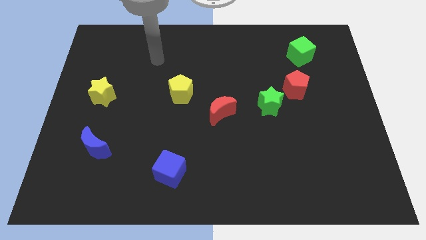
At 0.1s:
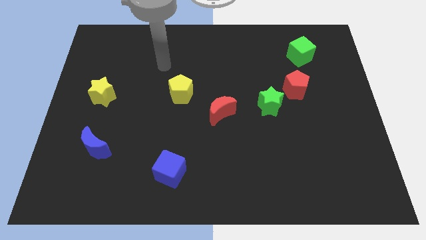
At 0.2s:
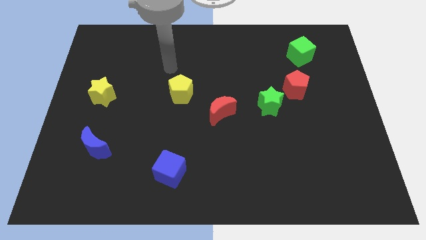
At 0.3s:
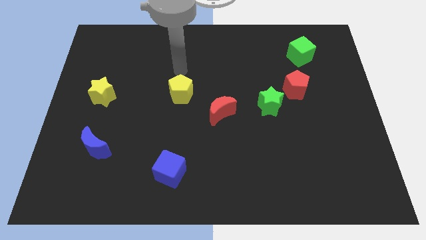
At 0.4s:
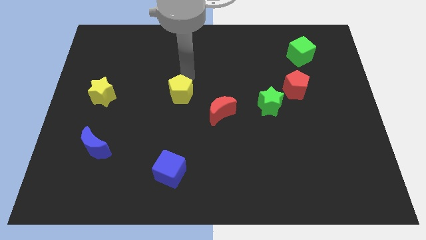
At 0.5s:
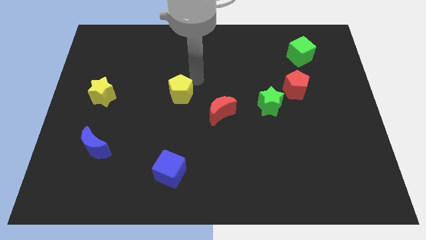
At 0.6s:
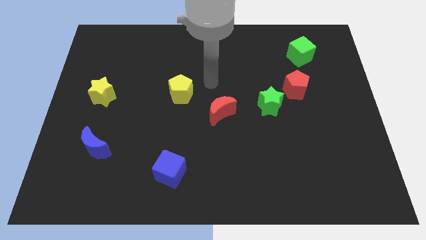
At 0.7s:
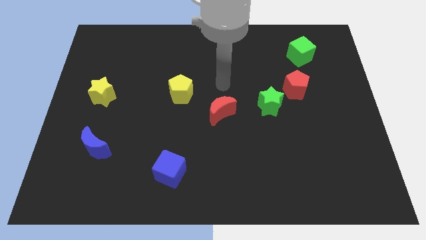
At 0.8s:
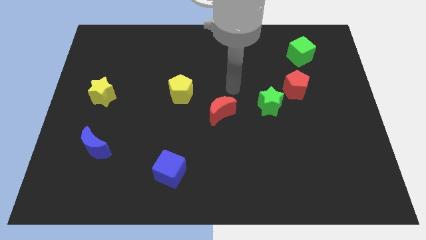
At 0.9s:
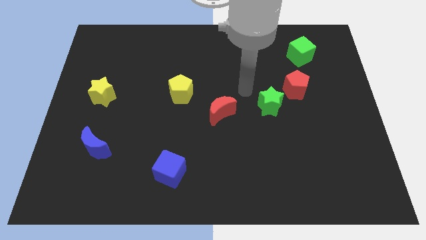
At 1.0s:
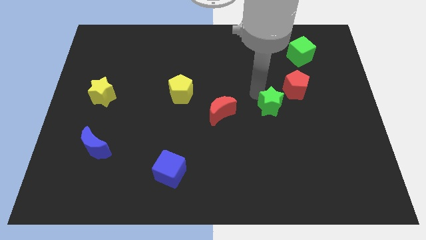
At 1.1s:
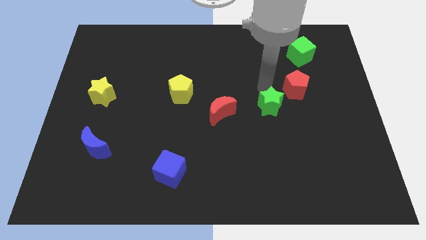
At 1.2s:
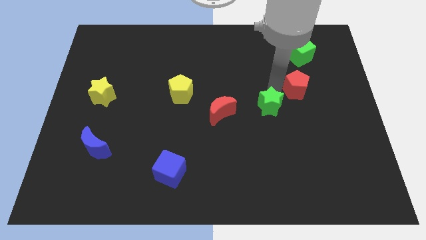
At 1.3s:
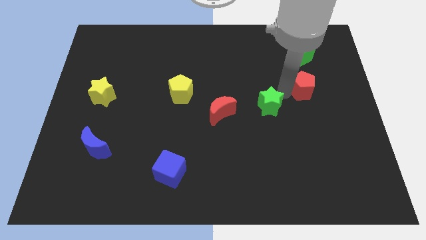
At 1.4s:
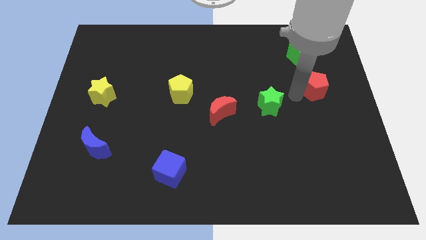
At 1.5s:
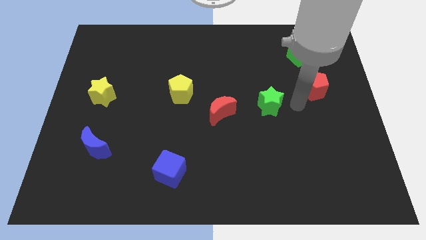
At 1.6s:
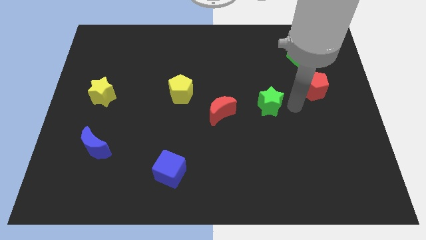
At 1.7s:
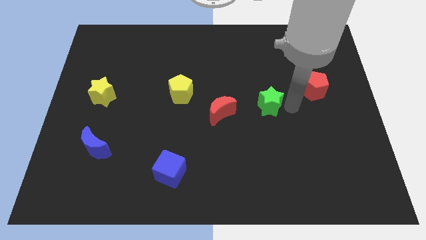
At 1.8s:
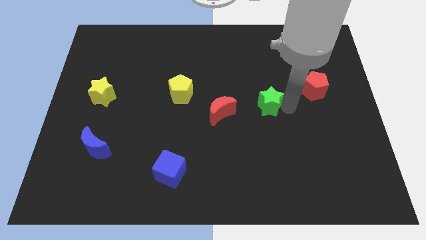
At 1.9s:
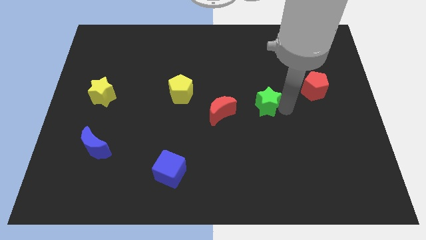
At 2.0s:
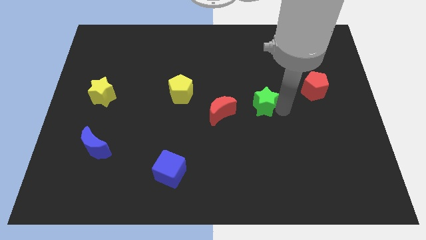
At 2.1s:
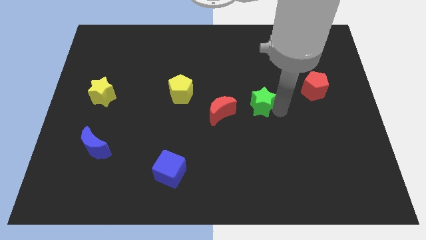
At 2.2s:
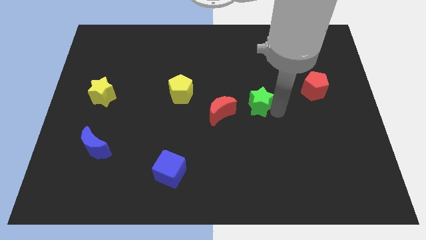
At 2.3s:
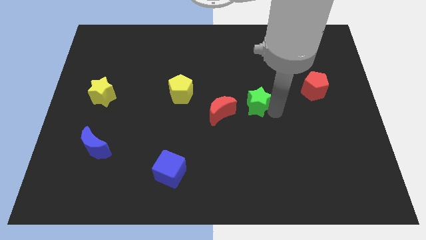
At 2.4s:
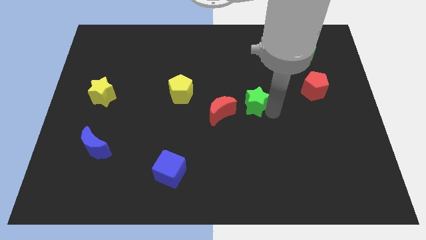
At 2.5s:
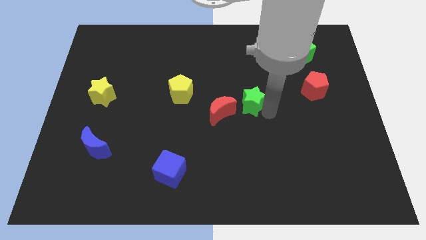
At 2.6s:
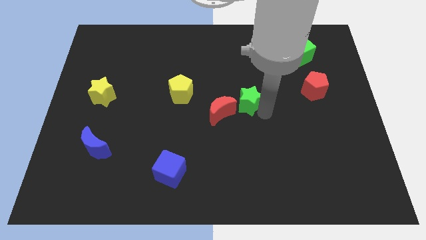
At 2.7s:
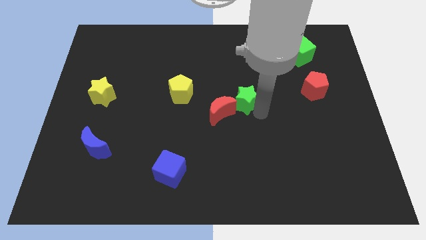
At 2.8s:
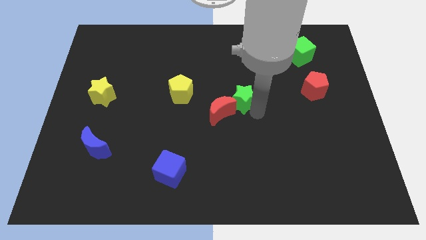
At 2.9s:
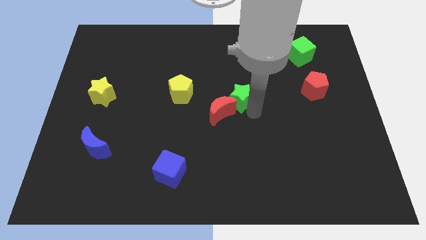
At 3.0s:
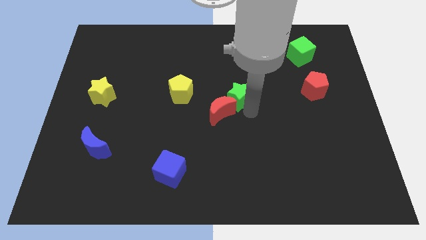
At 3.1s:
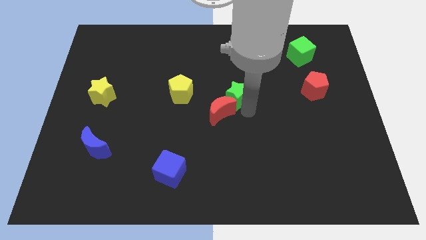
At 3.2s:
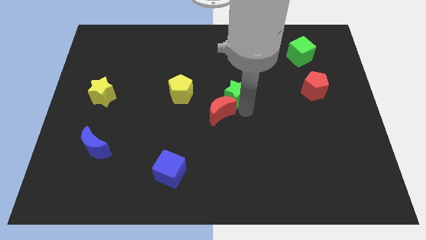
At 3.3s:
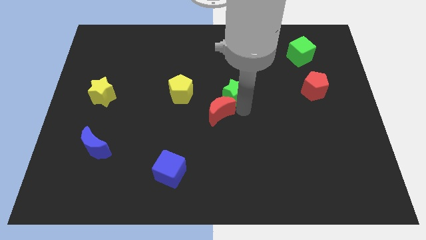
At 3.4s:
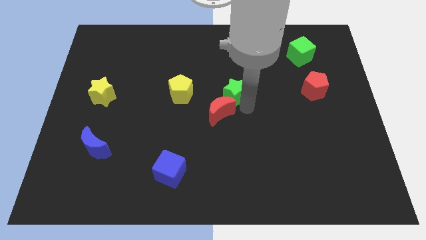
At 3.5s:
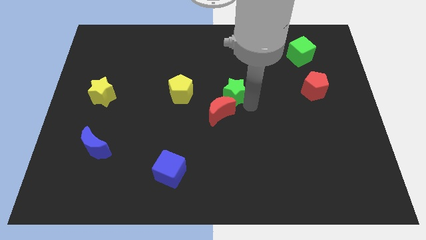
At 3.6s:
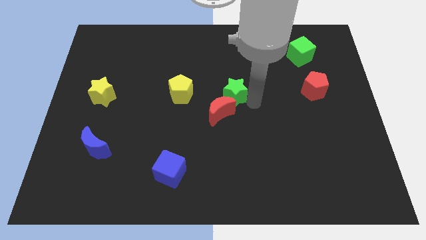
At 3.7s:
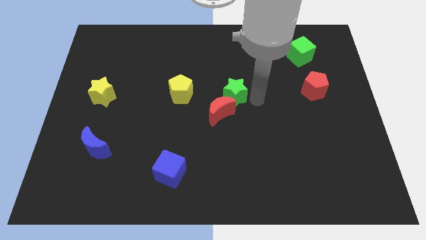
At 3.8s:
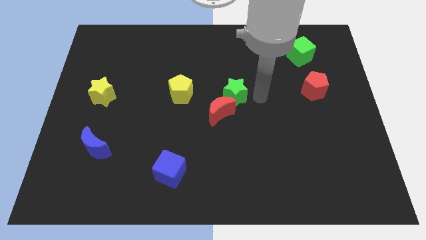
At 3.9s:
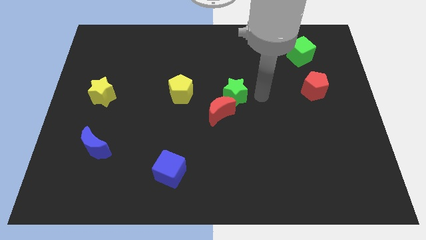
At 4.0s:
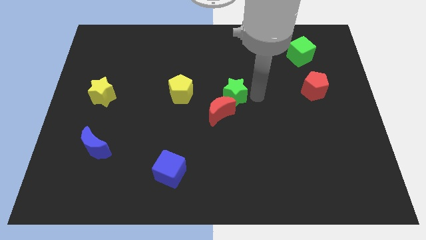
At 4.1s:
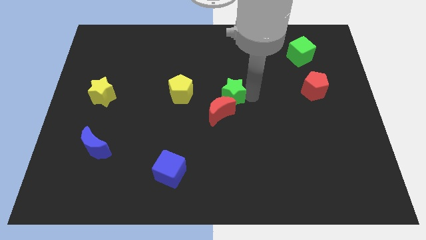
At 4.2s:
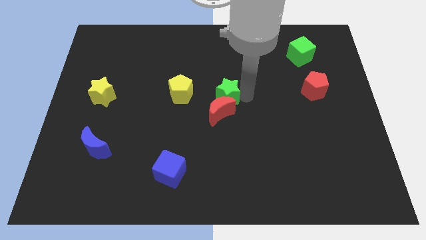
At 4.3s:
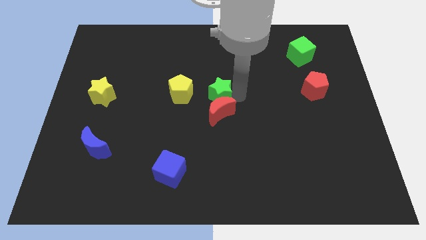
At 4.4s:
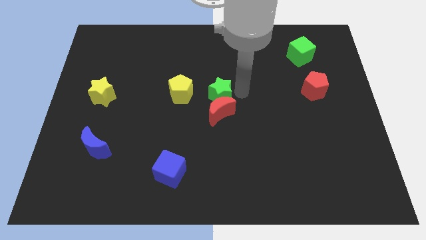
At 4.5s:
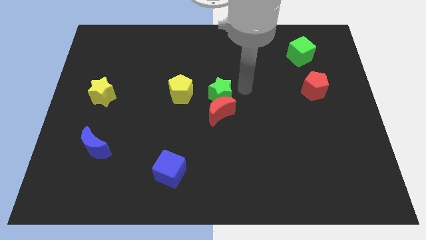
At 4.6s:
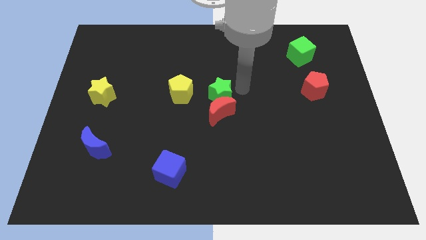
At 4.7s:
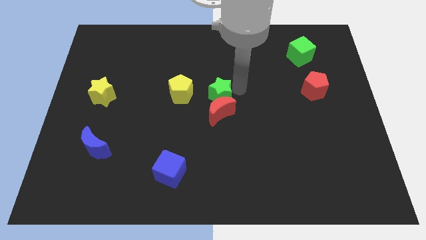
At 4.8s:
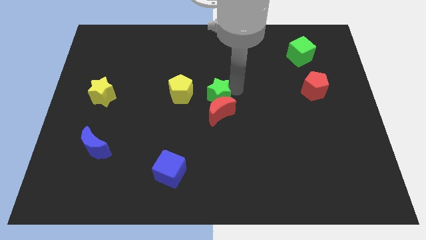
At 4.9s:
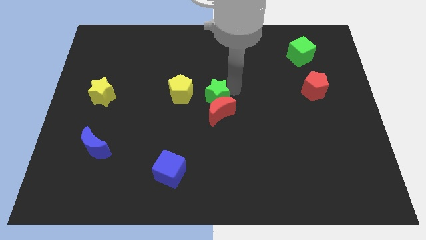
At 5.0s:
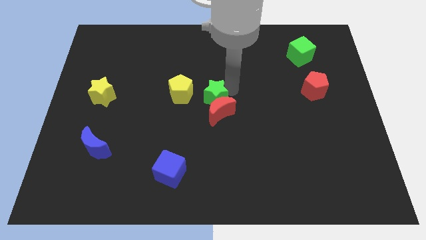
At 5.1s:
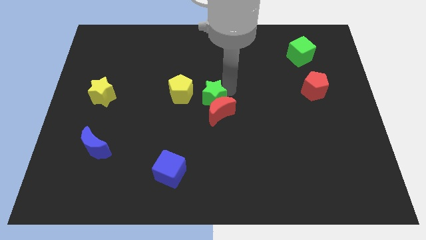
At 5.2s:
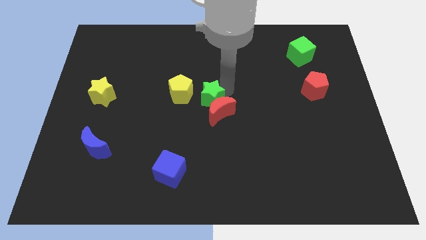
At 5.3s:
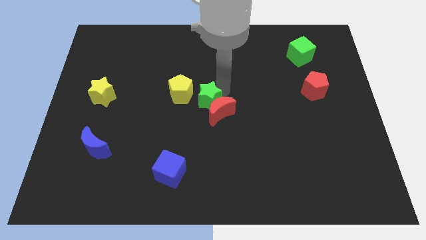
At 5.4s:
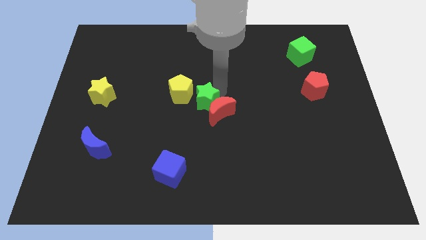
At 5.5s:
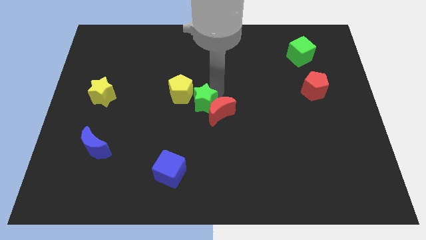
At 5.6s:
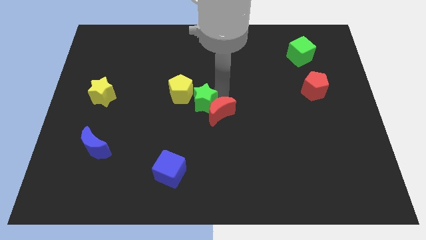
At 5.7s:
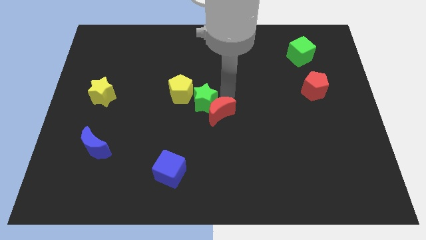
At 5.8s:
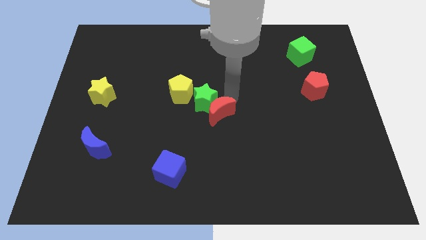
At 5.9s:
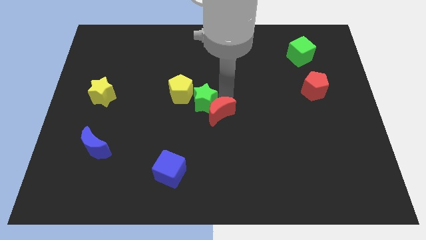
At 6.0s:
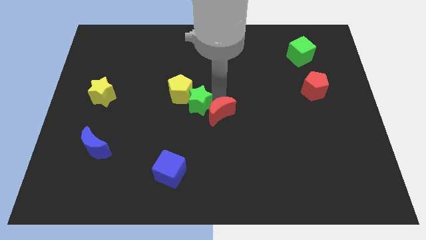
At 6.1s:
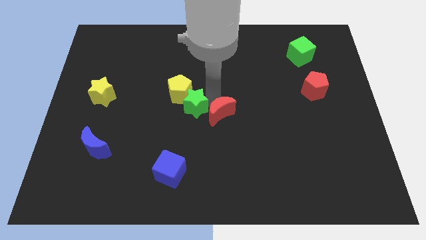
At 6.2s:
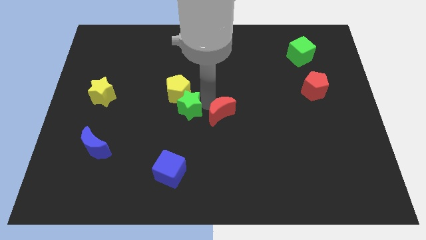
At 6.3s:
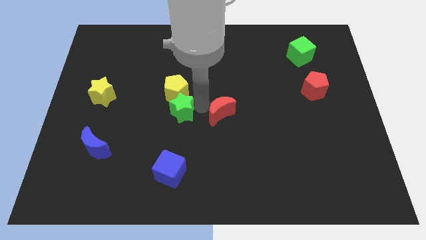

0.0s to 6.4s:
push the green star left

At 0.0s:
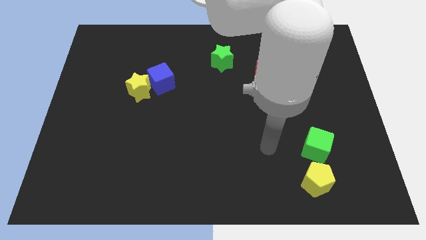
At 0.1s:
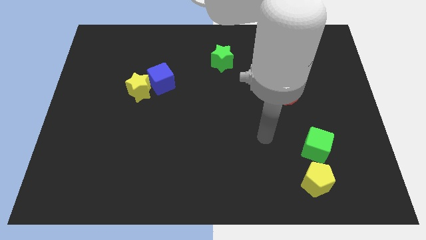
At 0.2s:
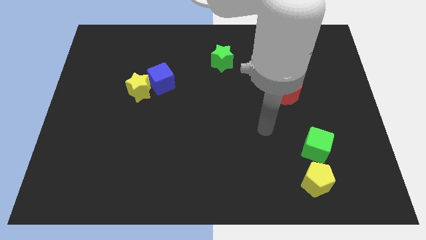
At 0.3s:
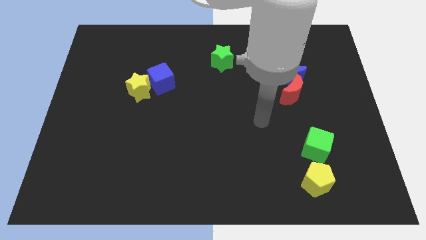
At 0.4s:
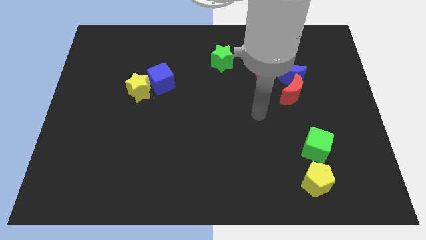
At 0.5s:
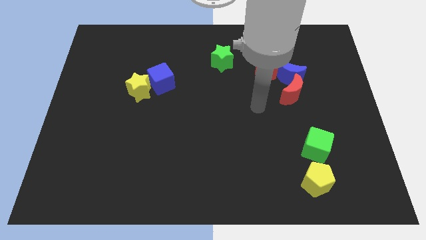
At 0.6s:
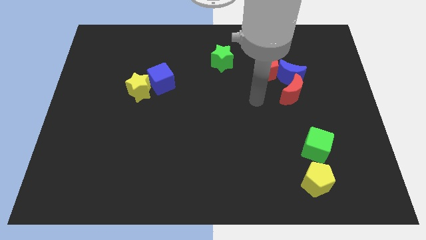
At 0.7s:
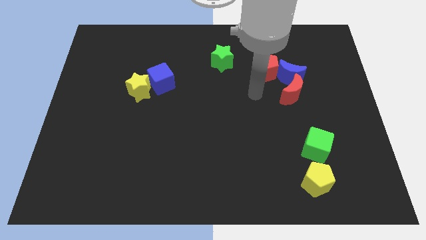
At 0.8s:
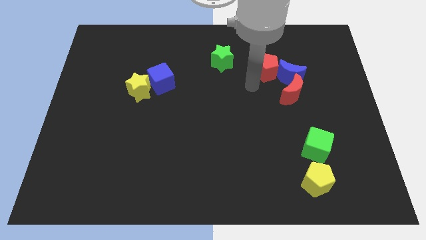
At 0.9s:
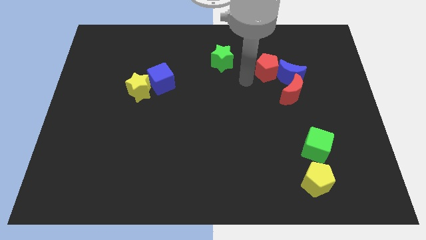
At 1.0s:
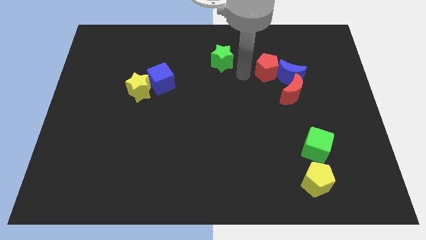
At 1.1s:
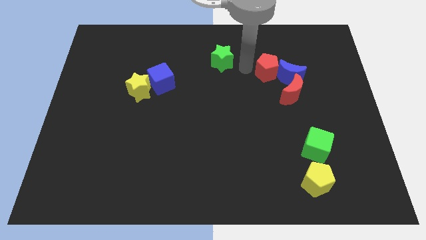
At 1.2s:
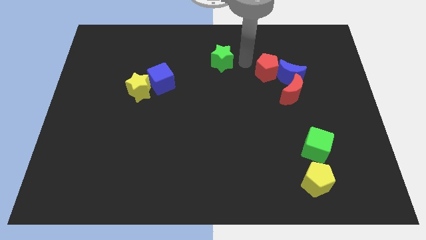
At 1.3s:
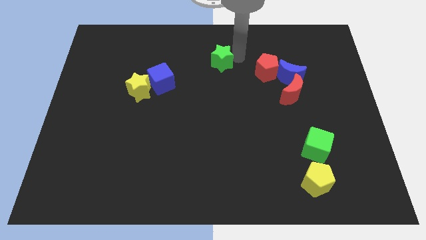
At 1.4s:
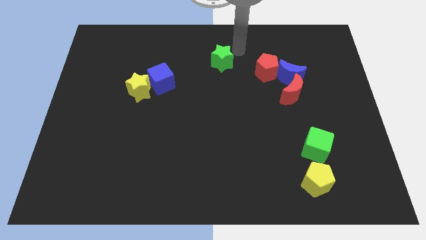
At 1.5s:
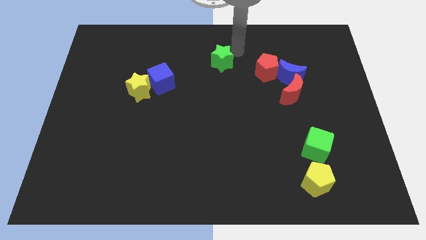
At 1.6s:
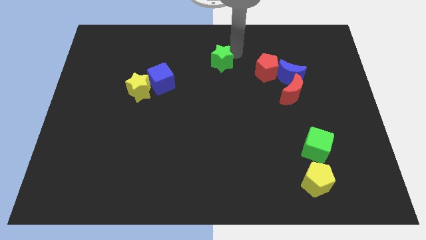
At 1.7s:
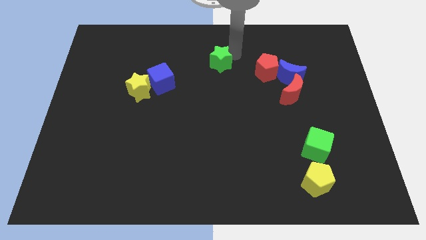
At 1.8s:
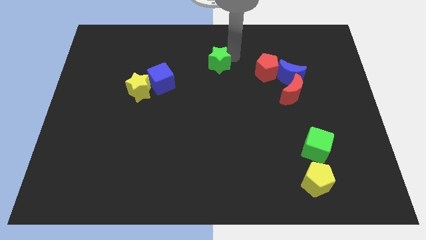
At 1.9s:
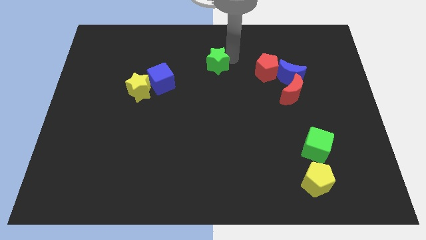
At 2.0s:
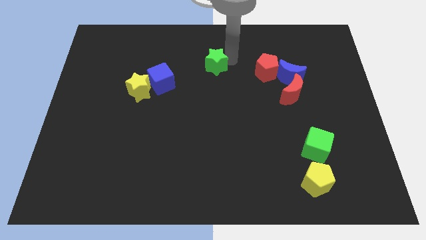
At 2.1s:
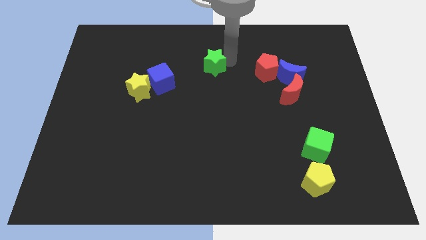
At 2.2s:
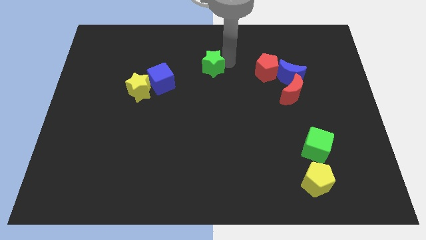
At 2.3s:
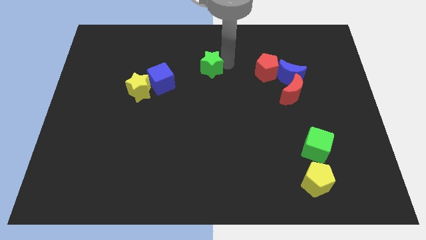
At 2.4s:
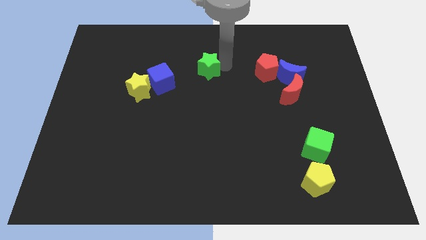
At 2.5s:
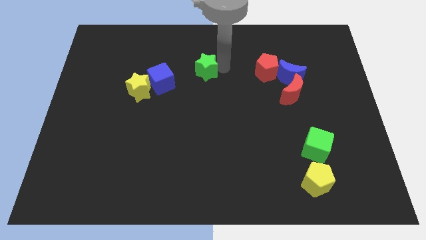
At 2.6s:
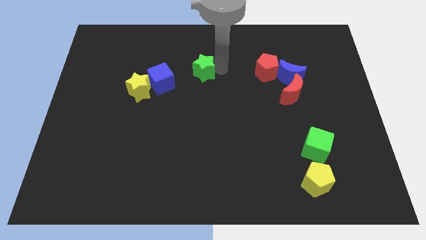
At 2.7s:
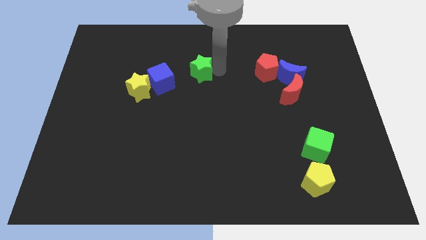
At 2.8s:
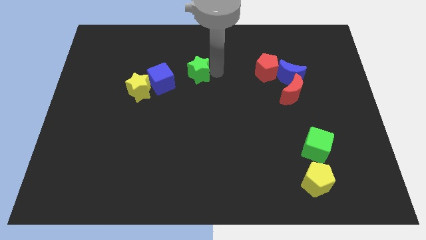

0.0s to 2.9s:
slide the green star down and then to the left a little
